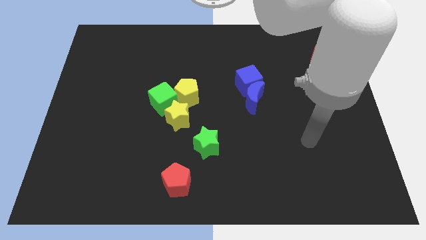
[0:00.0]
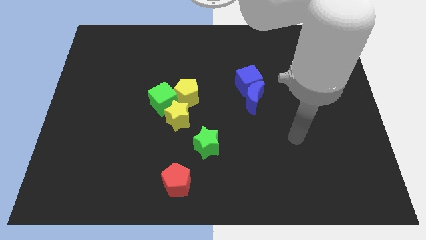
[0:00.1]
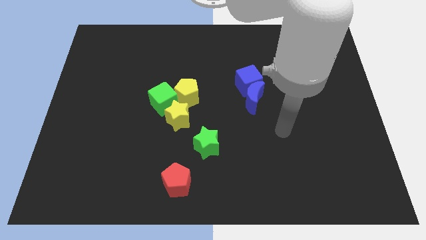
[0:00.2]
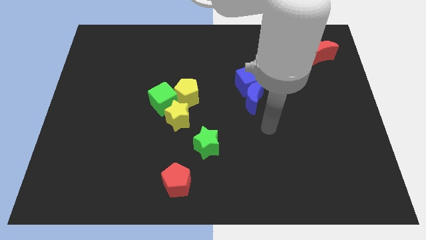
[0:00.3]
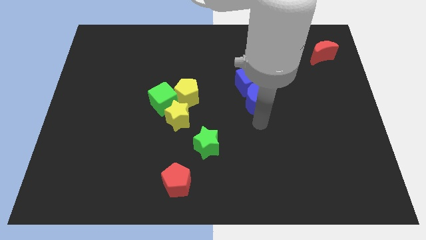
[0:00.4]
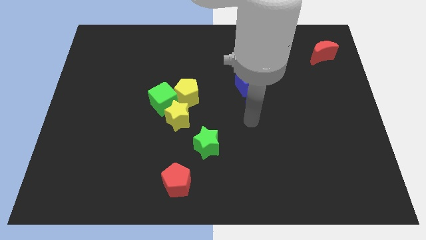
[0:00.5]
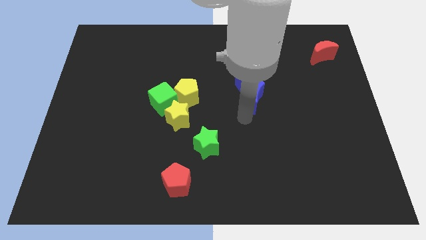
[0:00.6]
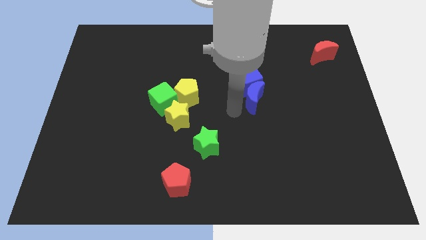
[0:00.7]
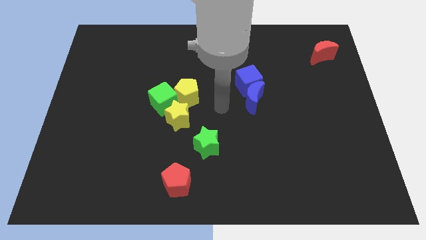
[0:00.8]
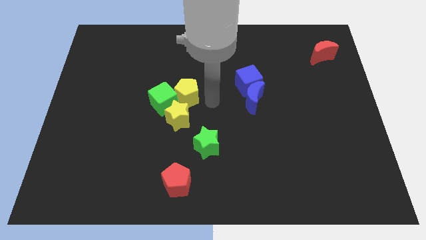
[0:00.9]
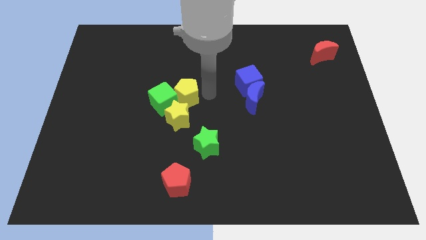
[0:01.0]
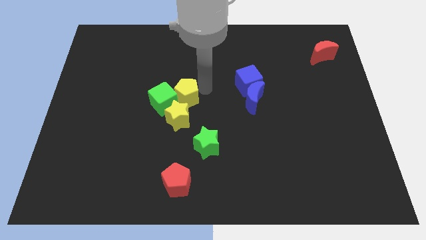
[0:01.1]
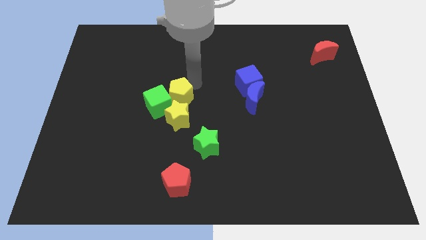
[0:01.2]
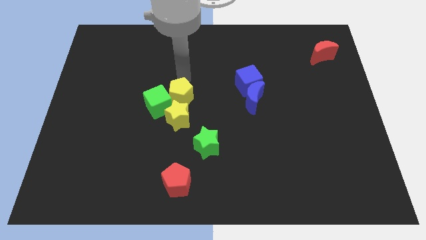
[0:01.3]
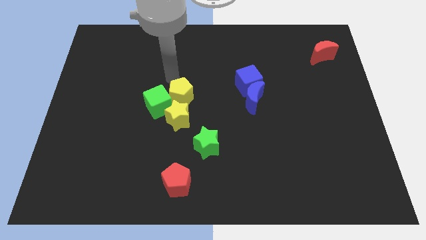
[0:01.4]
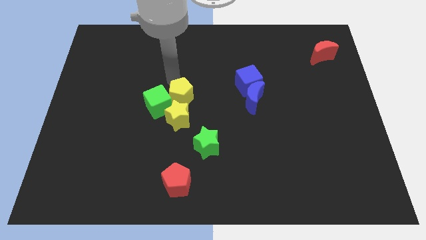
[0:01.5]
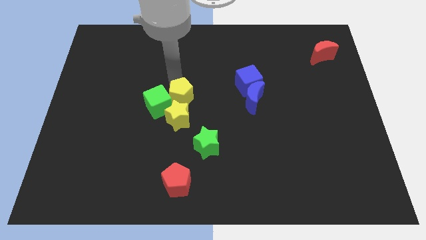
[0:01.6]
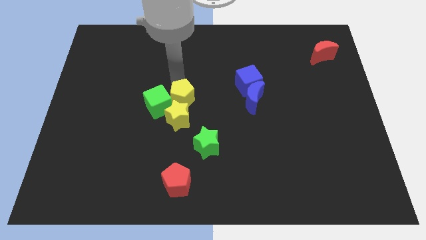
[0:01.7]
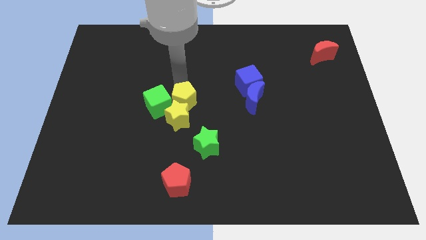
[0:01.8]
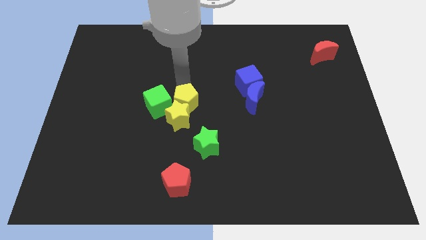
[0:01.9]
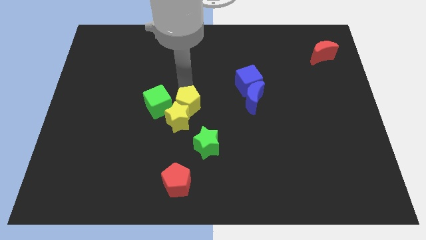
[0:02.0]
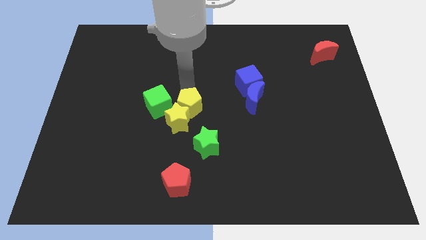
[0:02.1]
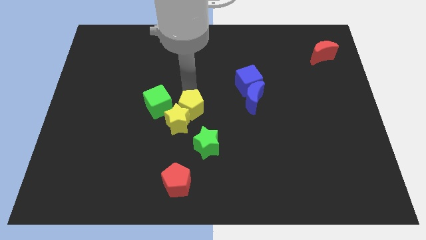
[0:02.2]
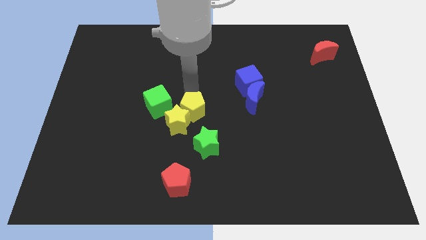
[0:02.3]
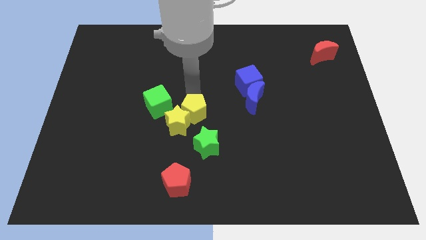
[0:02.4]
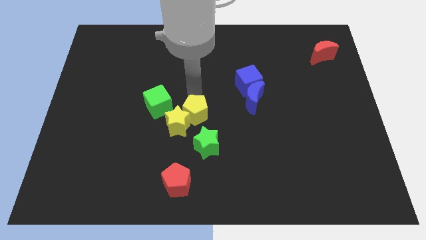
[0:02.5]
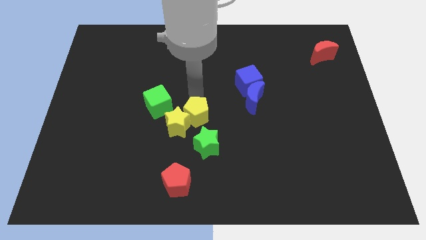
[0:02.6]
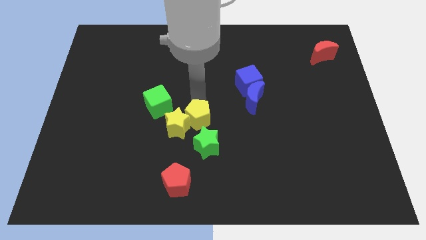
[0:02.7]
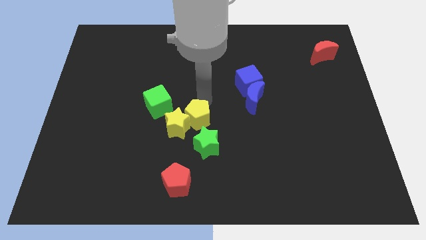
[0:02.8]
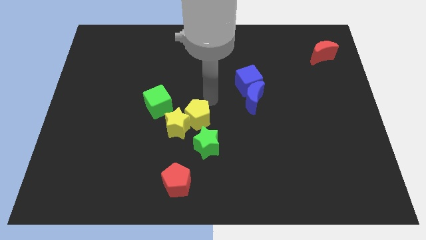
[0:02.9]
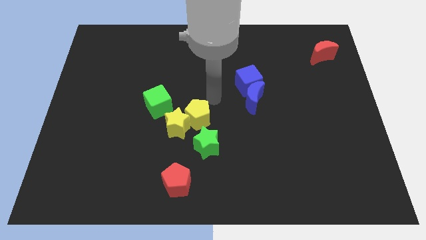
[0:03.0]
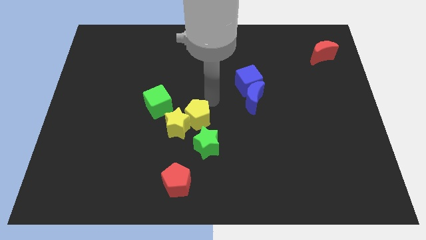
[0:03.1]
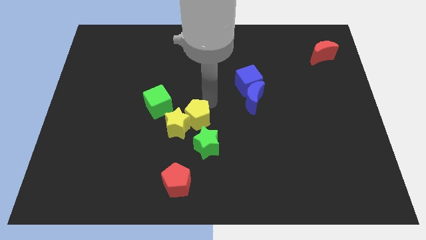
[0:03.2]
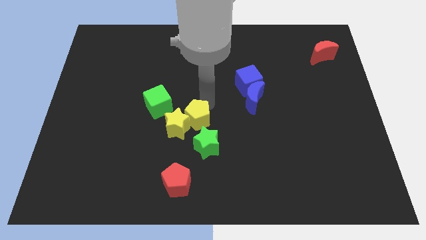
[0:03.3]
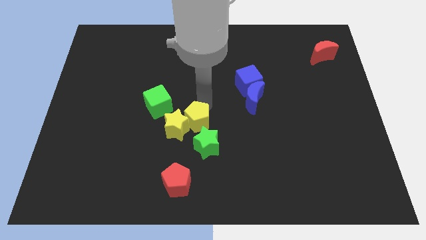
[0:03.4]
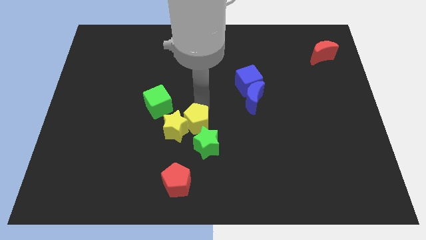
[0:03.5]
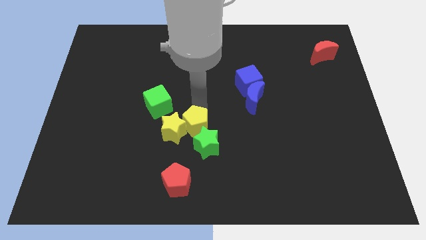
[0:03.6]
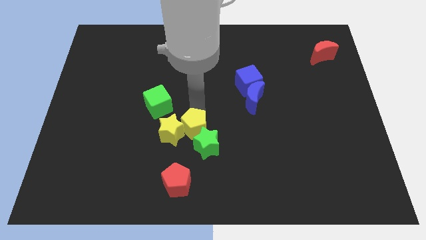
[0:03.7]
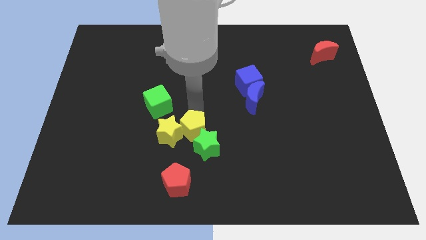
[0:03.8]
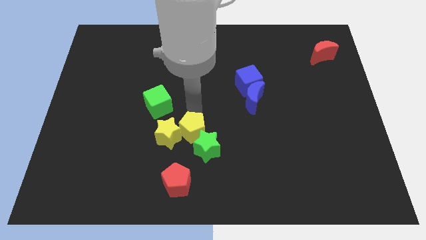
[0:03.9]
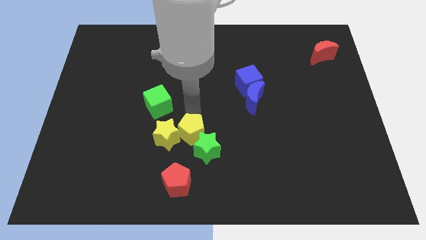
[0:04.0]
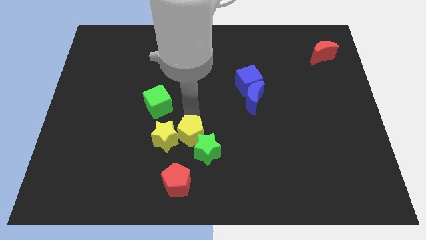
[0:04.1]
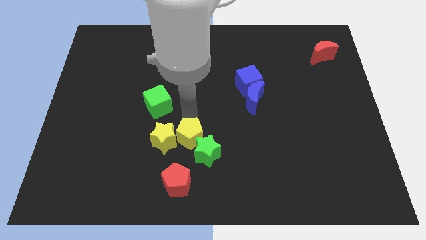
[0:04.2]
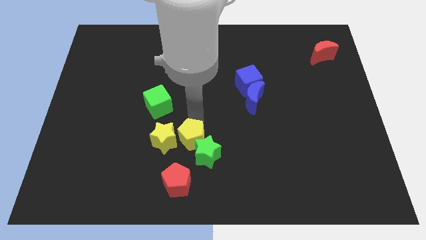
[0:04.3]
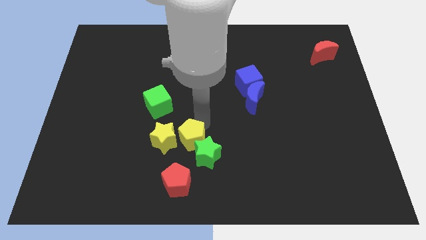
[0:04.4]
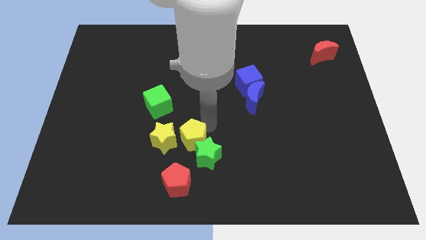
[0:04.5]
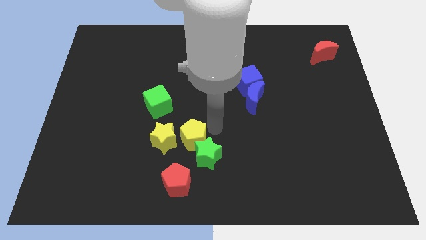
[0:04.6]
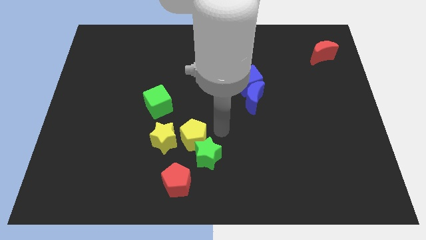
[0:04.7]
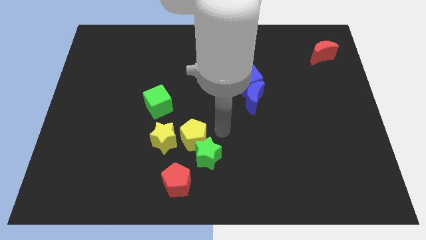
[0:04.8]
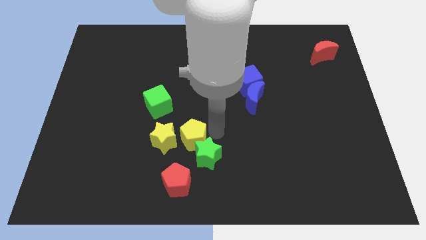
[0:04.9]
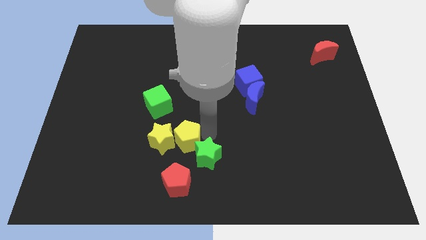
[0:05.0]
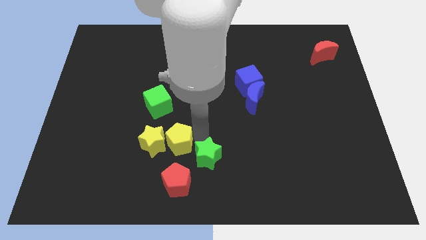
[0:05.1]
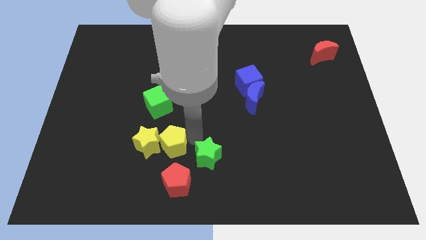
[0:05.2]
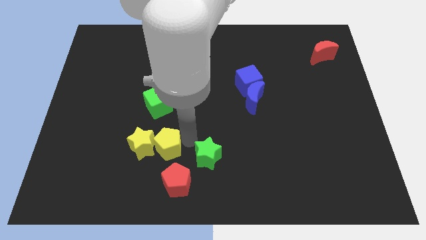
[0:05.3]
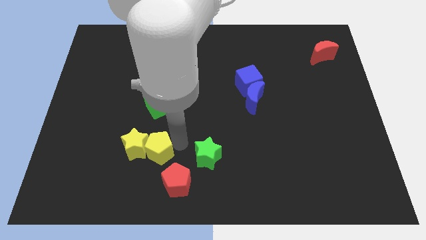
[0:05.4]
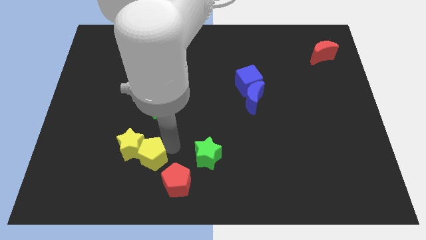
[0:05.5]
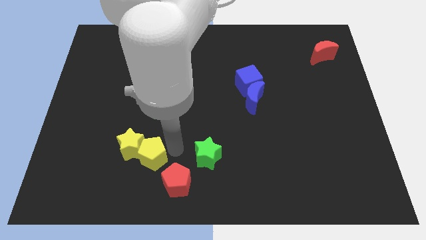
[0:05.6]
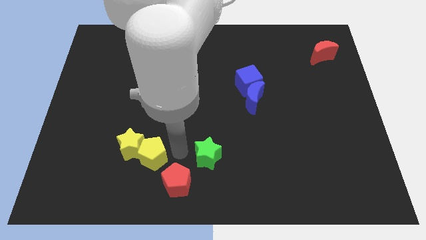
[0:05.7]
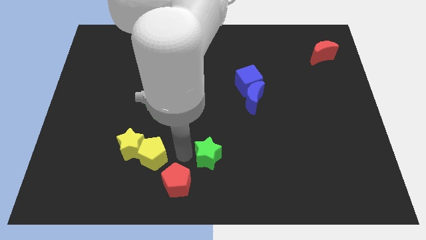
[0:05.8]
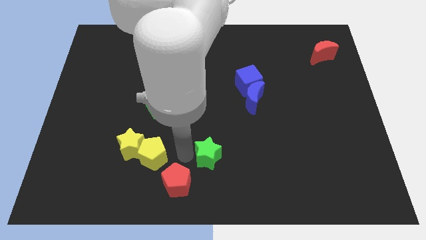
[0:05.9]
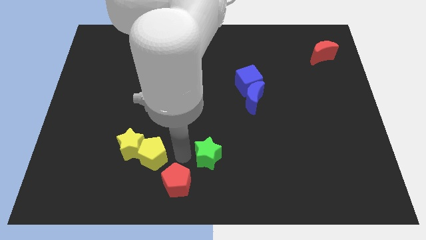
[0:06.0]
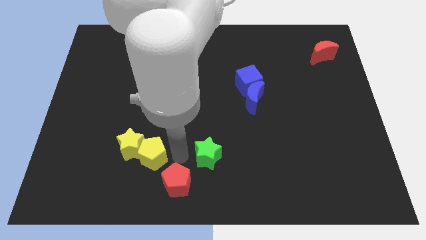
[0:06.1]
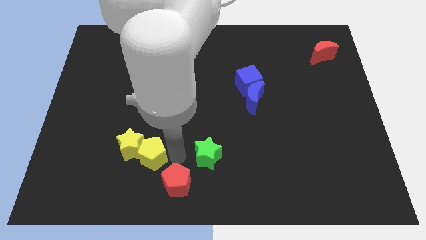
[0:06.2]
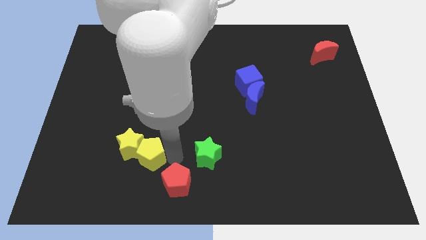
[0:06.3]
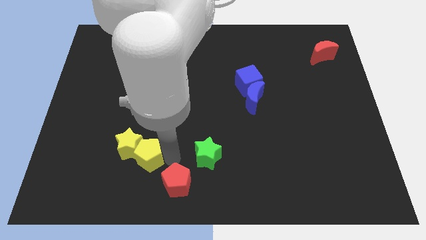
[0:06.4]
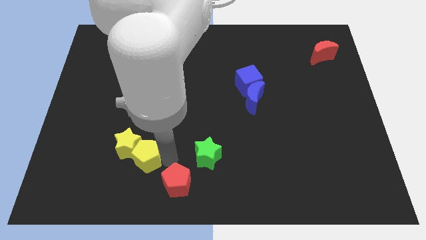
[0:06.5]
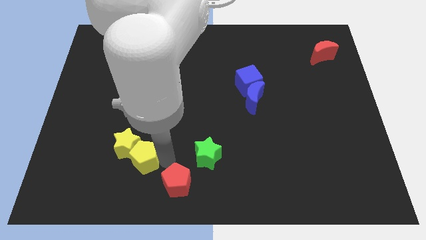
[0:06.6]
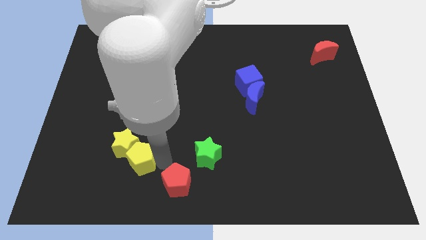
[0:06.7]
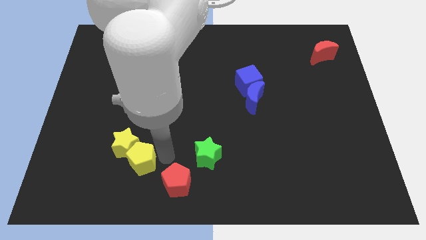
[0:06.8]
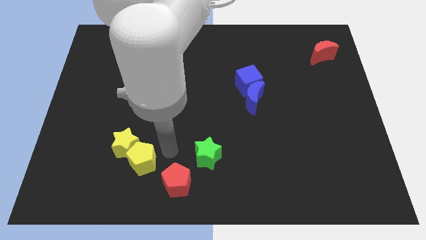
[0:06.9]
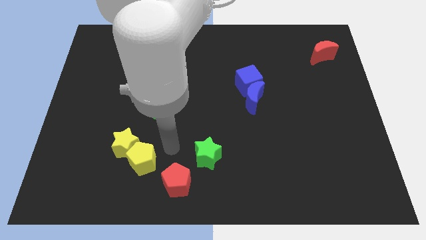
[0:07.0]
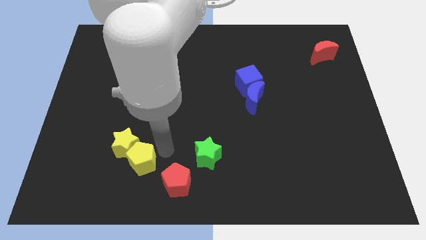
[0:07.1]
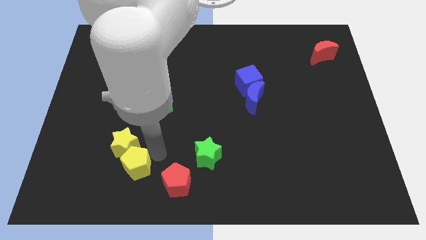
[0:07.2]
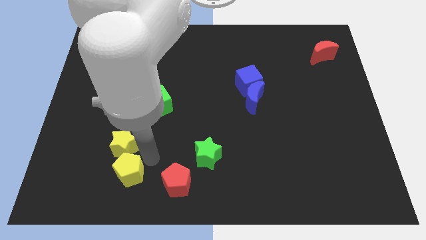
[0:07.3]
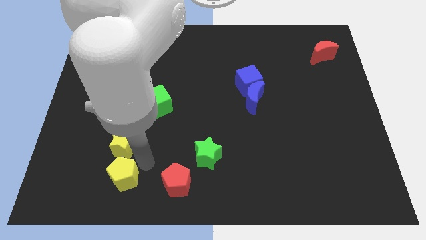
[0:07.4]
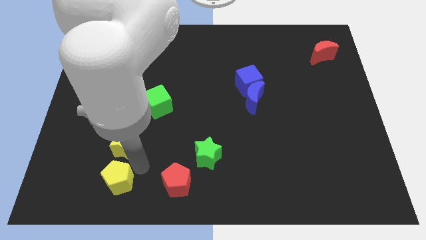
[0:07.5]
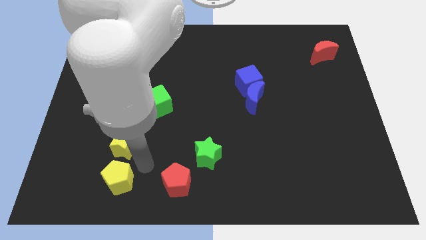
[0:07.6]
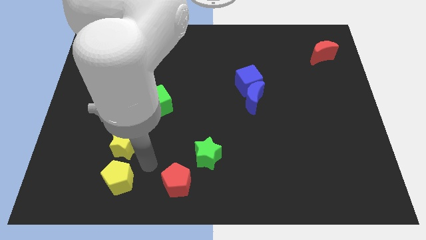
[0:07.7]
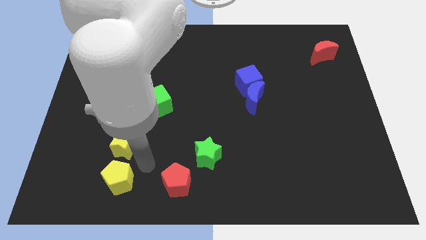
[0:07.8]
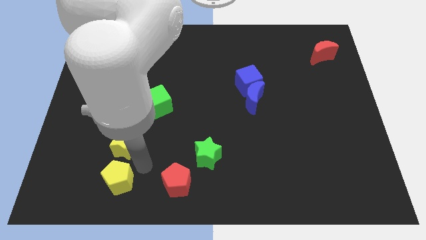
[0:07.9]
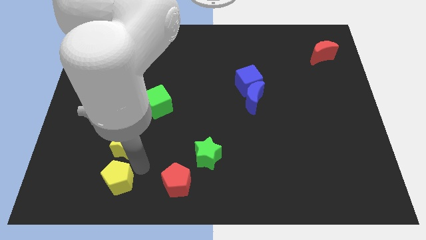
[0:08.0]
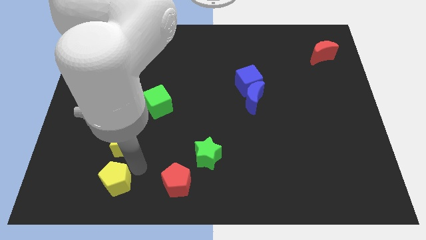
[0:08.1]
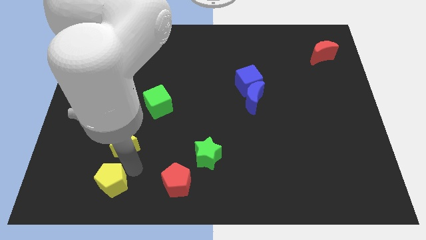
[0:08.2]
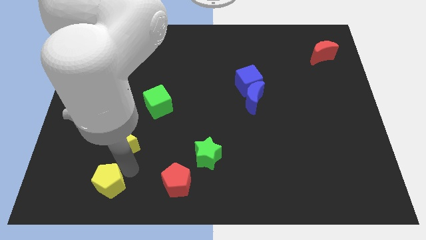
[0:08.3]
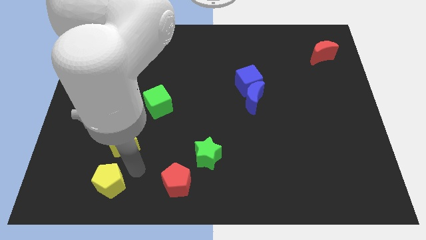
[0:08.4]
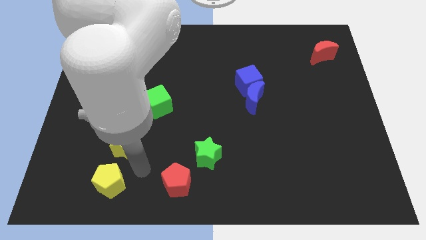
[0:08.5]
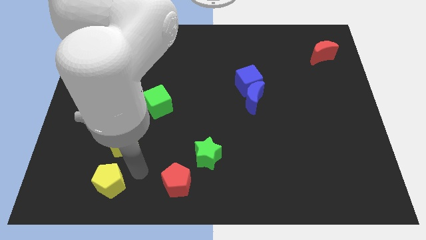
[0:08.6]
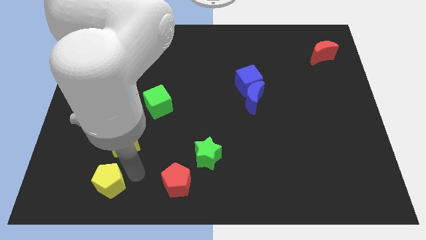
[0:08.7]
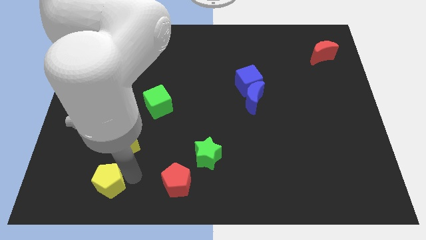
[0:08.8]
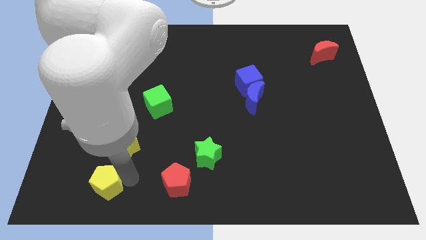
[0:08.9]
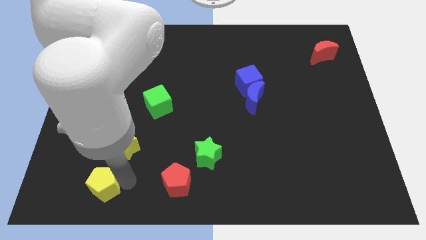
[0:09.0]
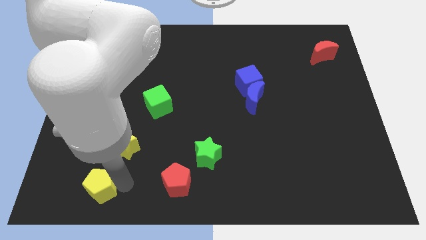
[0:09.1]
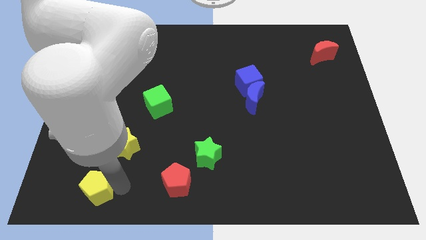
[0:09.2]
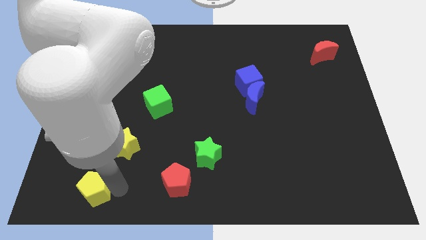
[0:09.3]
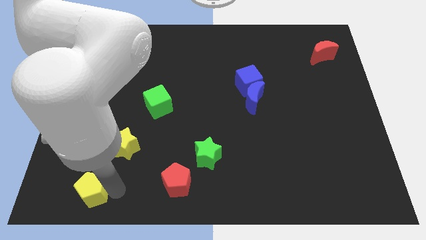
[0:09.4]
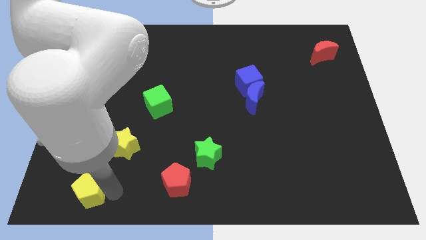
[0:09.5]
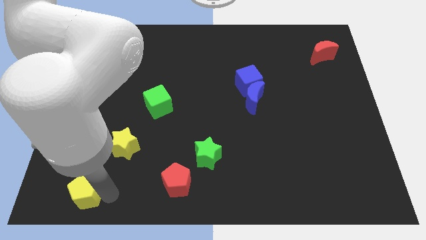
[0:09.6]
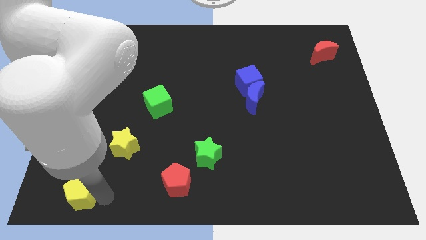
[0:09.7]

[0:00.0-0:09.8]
move the yellow pentagon to the lower left corner
